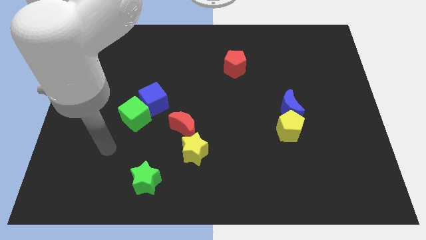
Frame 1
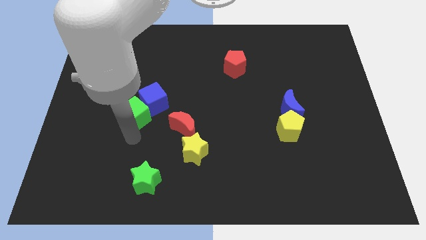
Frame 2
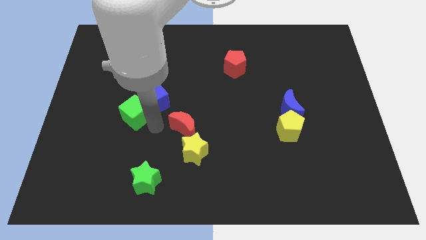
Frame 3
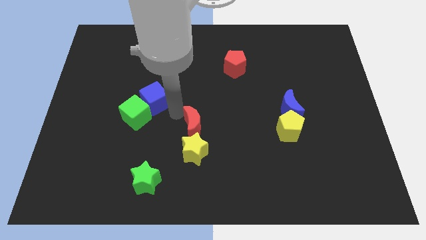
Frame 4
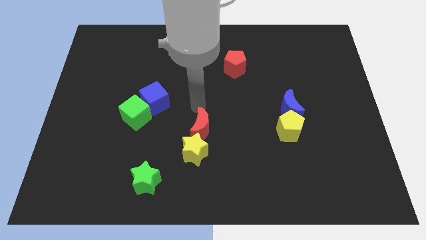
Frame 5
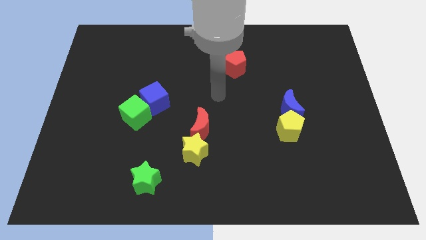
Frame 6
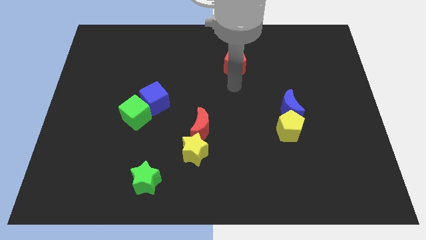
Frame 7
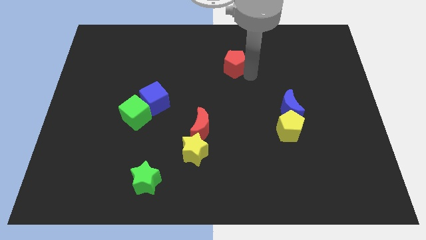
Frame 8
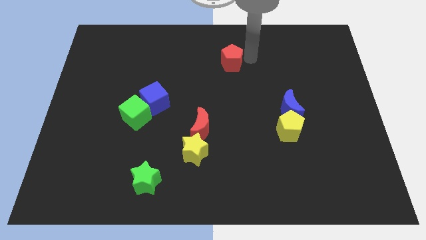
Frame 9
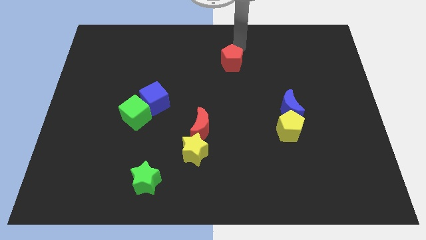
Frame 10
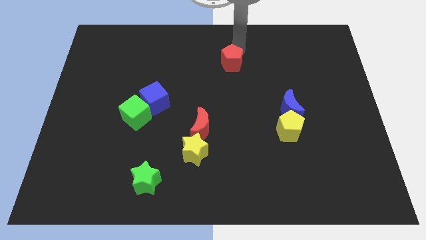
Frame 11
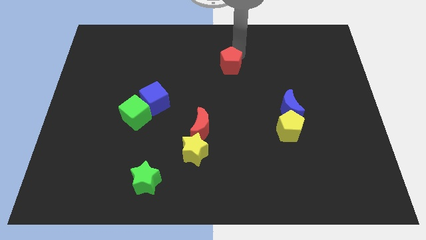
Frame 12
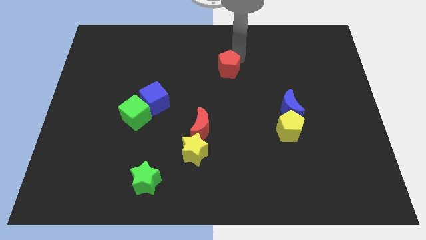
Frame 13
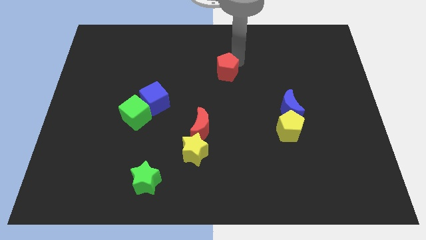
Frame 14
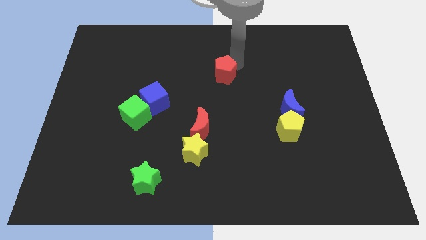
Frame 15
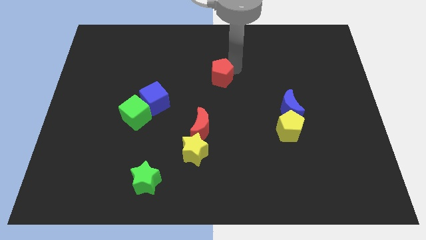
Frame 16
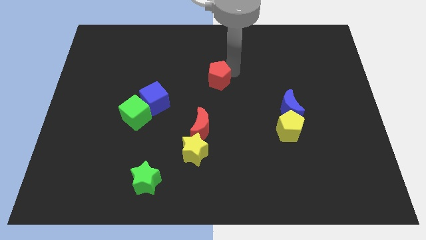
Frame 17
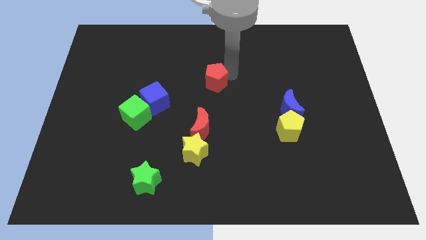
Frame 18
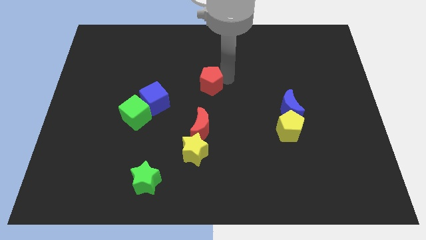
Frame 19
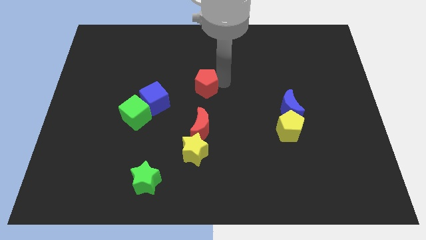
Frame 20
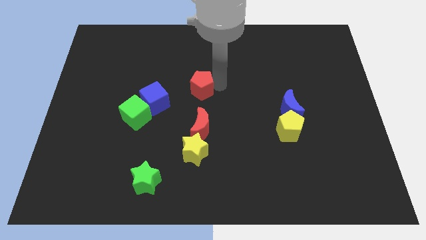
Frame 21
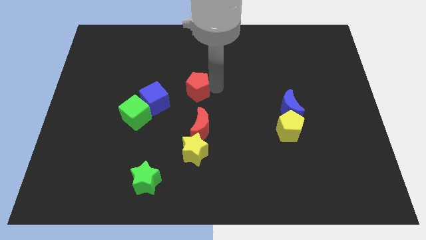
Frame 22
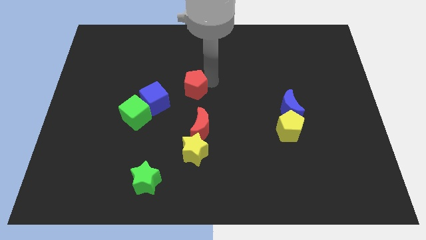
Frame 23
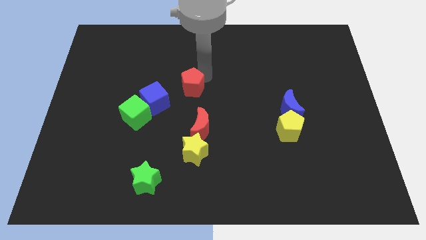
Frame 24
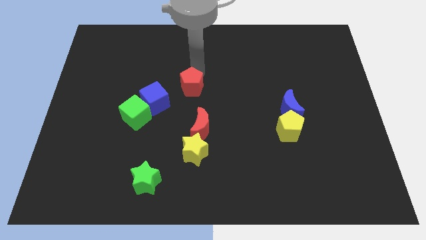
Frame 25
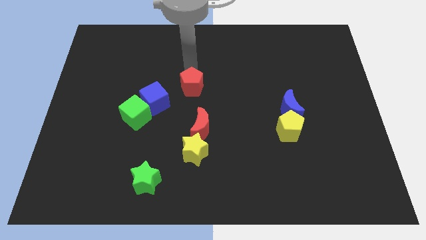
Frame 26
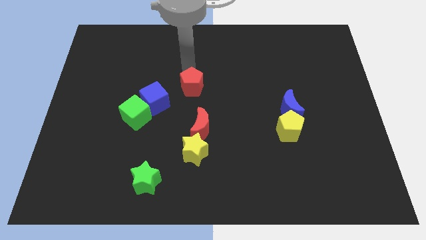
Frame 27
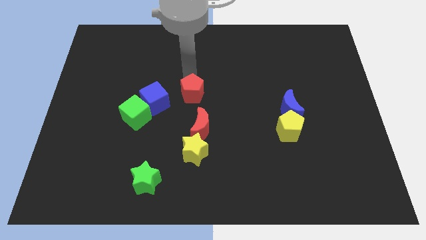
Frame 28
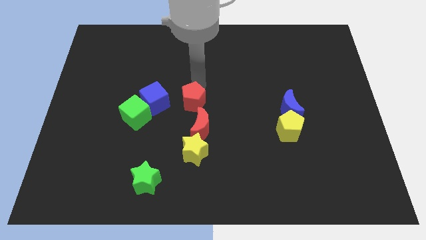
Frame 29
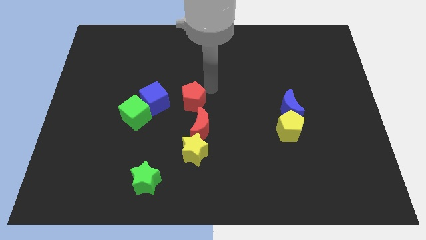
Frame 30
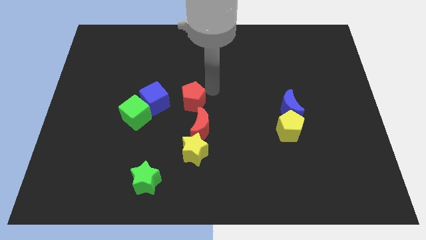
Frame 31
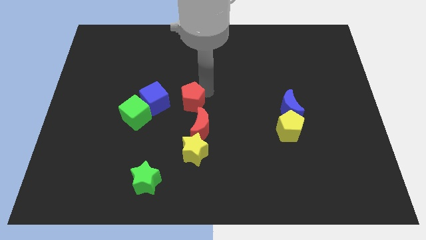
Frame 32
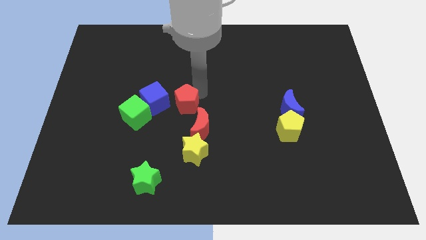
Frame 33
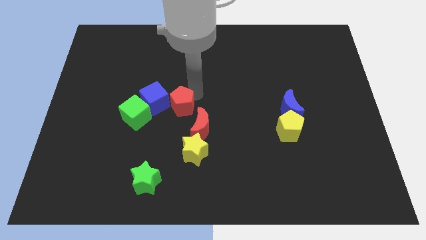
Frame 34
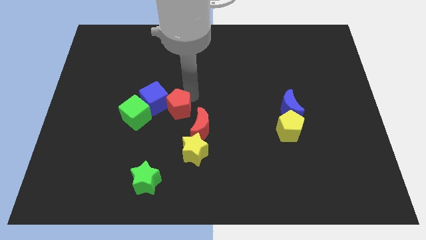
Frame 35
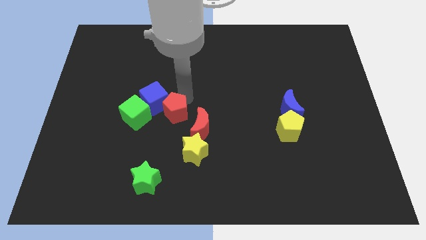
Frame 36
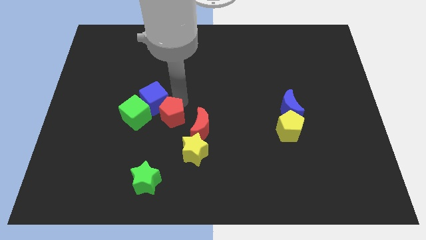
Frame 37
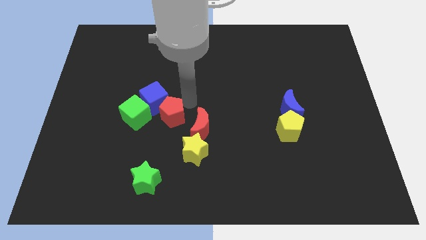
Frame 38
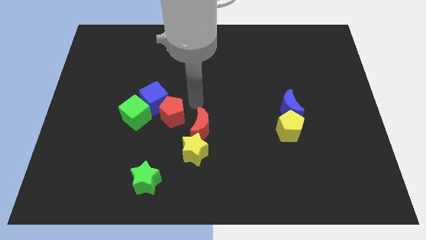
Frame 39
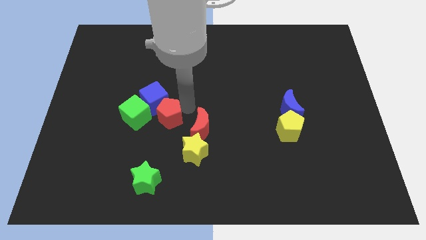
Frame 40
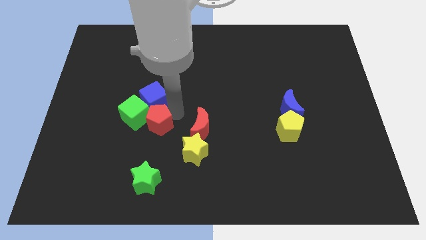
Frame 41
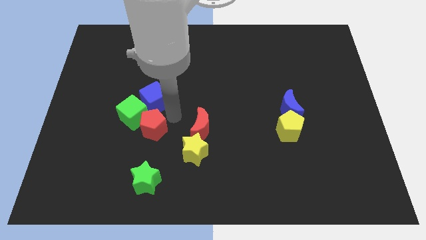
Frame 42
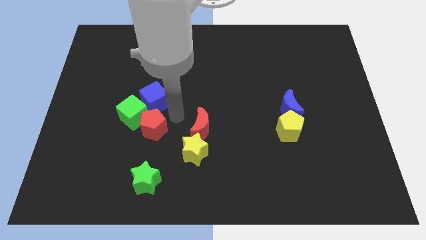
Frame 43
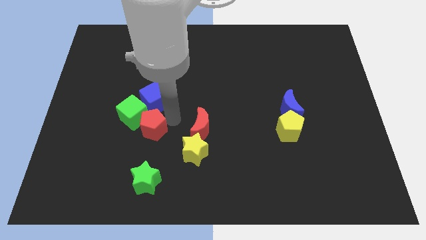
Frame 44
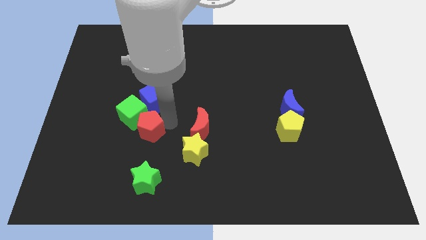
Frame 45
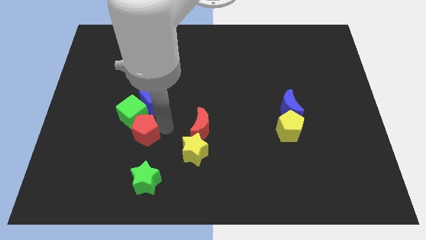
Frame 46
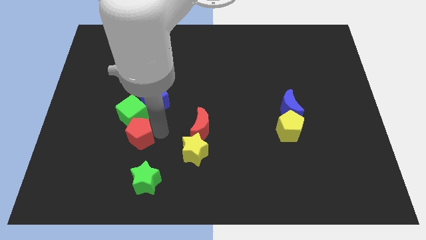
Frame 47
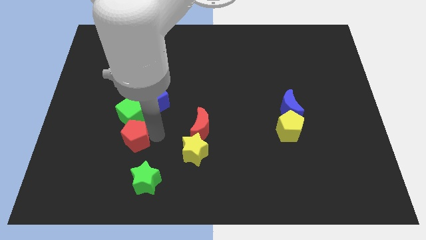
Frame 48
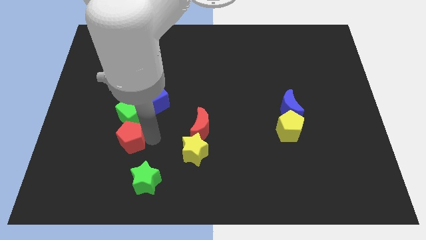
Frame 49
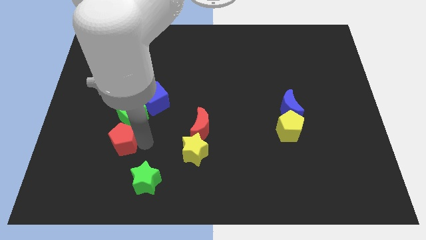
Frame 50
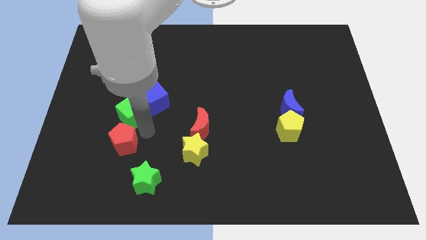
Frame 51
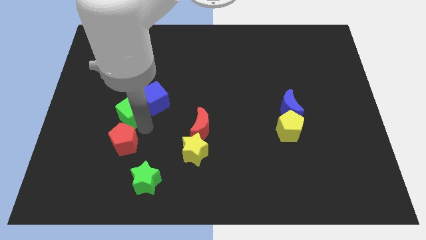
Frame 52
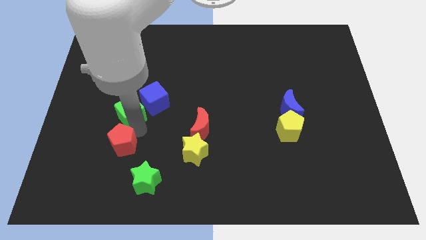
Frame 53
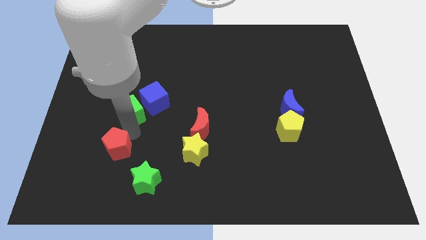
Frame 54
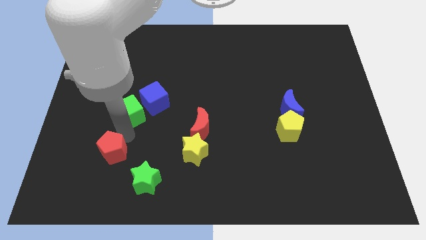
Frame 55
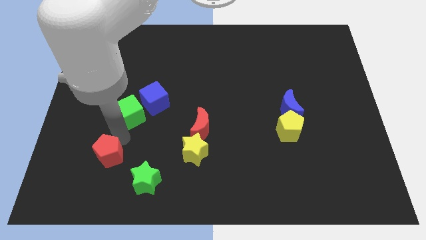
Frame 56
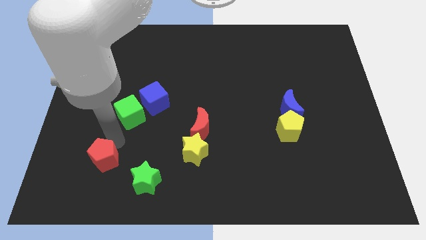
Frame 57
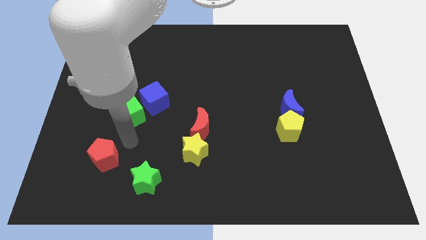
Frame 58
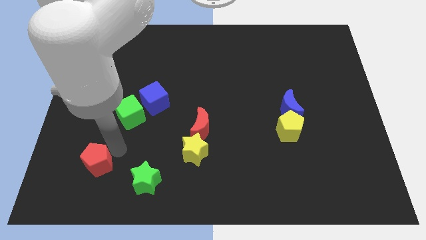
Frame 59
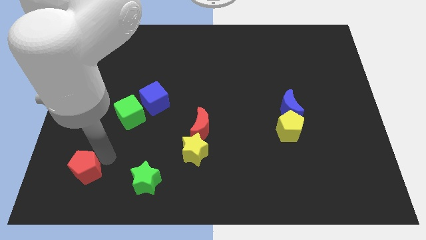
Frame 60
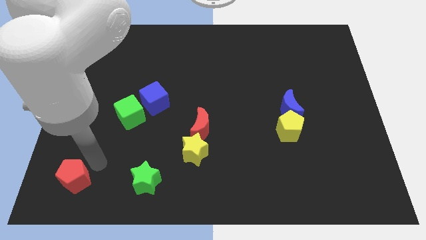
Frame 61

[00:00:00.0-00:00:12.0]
put the red pentagon to the bottom left
